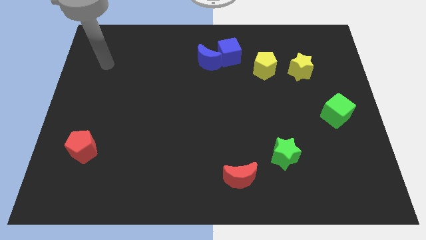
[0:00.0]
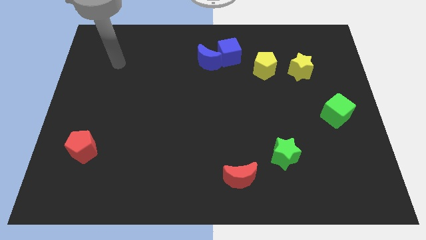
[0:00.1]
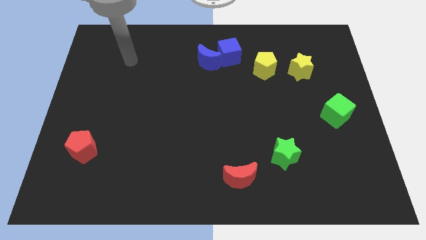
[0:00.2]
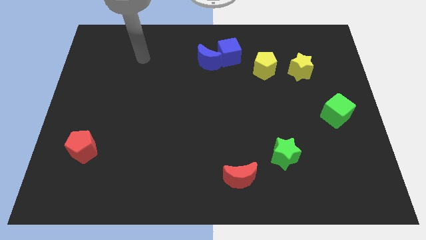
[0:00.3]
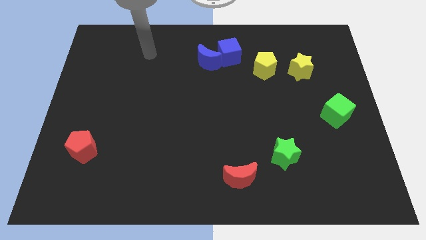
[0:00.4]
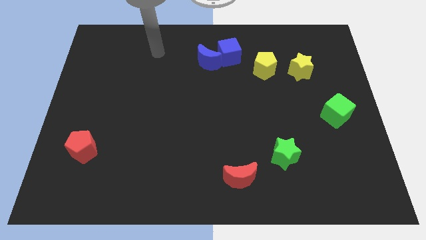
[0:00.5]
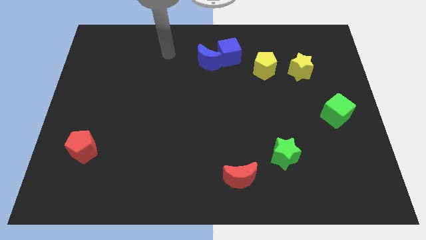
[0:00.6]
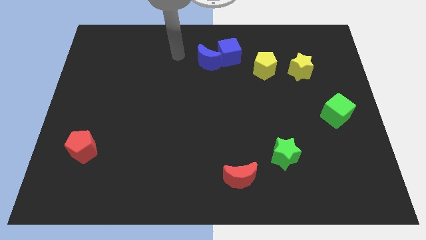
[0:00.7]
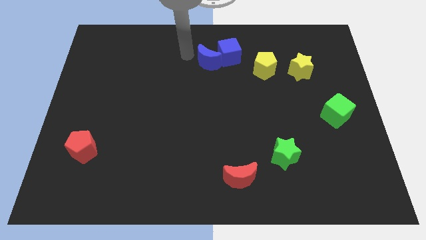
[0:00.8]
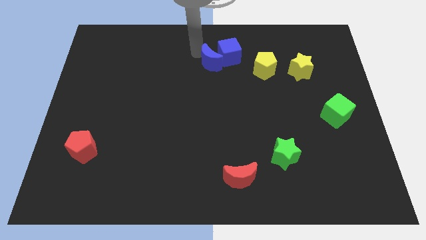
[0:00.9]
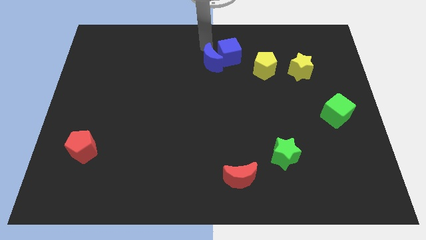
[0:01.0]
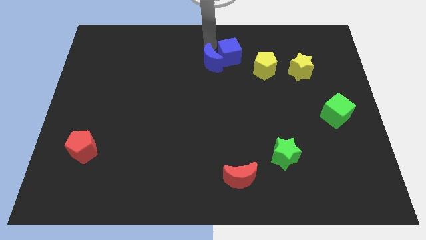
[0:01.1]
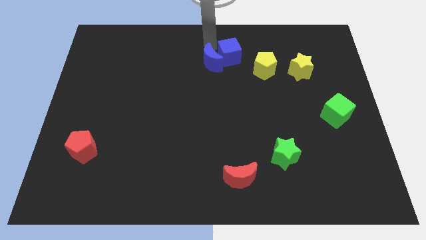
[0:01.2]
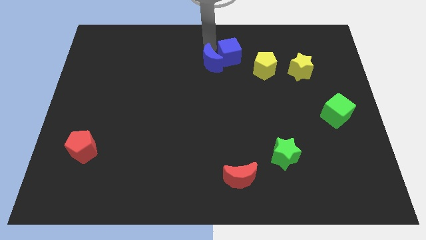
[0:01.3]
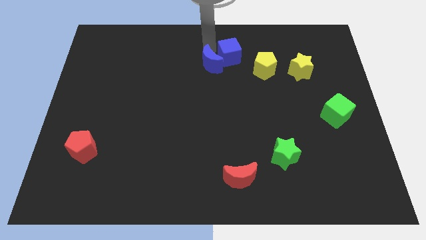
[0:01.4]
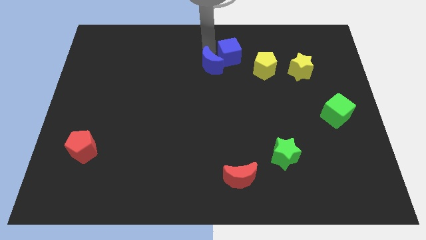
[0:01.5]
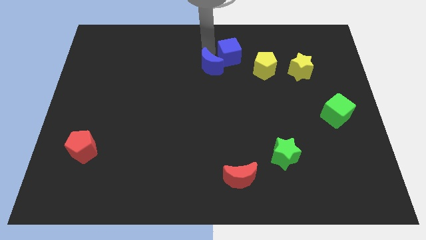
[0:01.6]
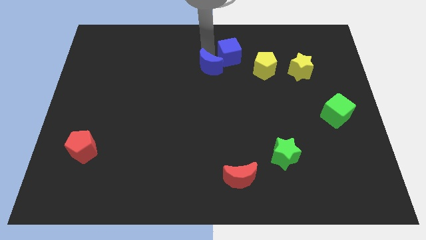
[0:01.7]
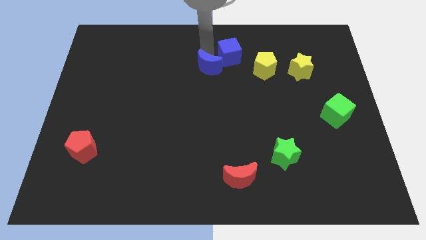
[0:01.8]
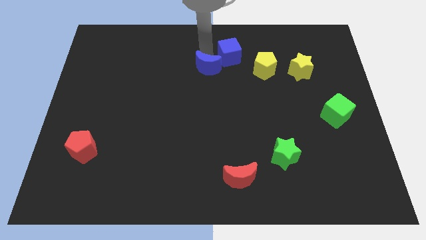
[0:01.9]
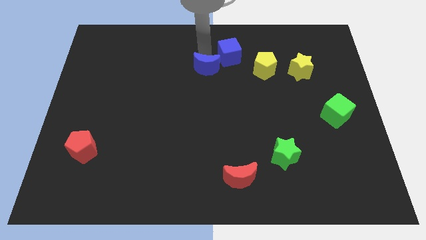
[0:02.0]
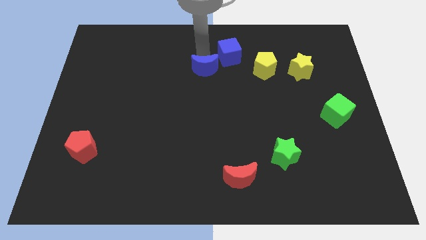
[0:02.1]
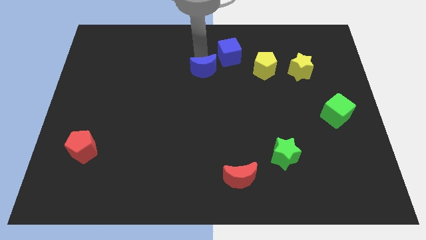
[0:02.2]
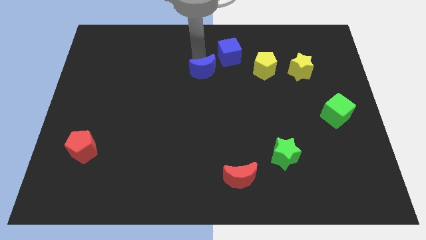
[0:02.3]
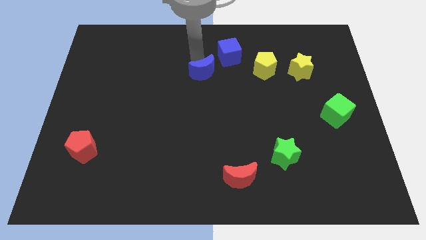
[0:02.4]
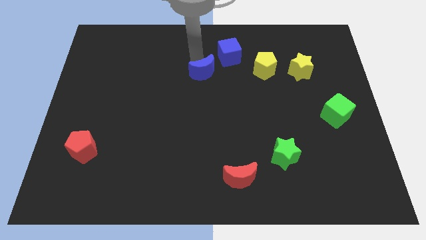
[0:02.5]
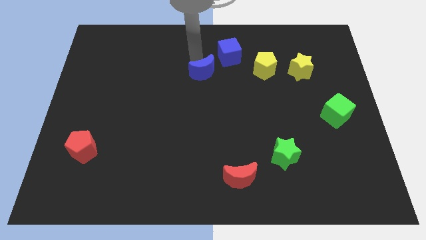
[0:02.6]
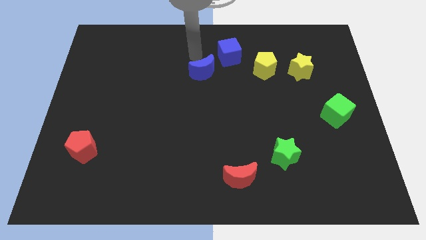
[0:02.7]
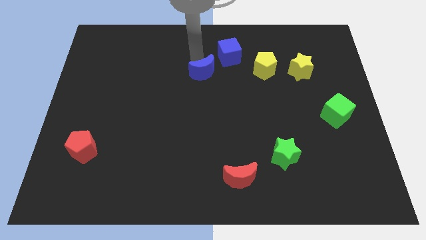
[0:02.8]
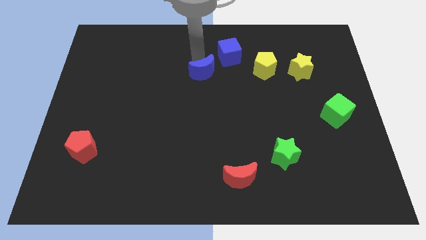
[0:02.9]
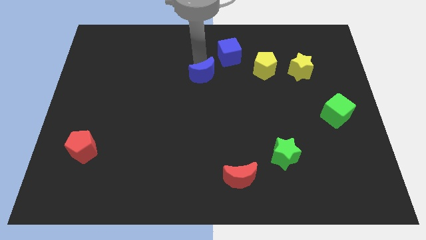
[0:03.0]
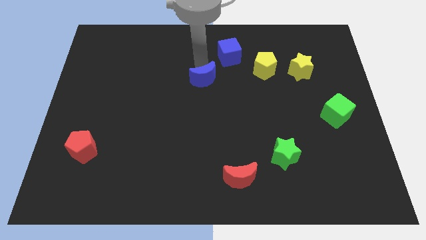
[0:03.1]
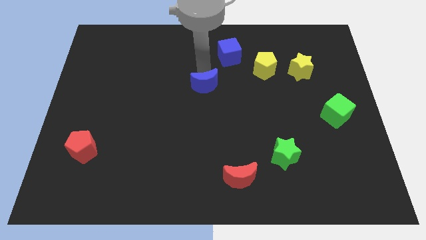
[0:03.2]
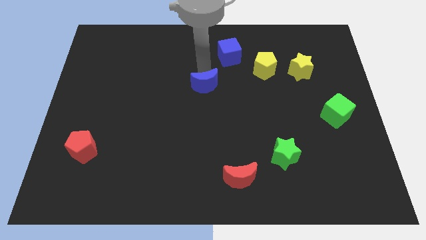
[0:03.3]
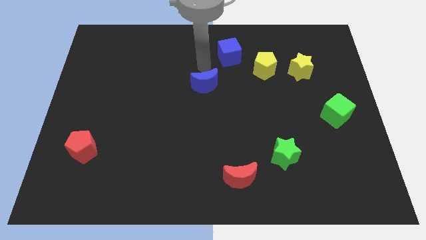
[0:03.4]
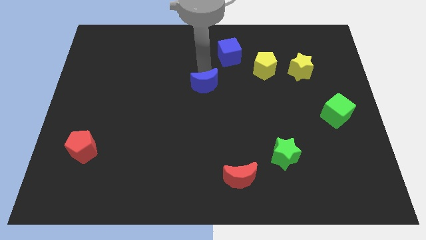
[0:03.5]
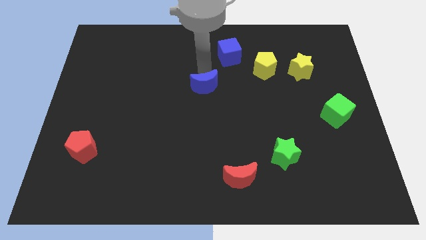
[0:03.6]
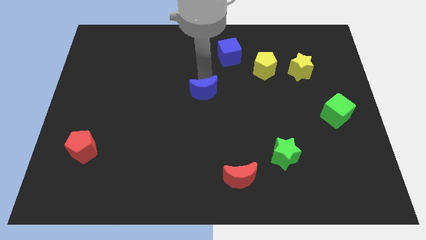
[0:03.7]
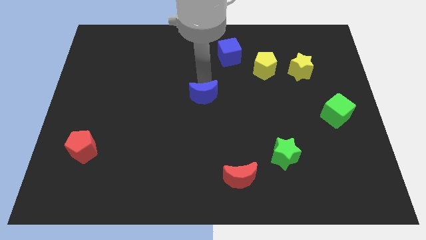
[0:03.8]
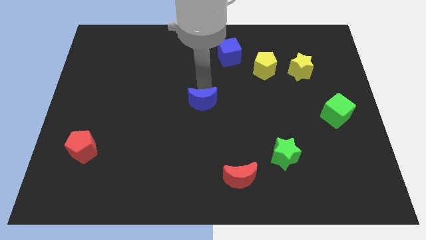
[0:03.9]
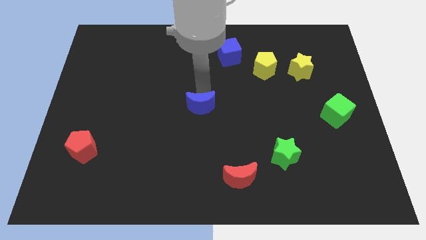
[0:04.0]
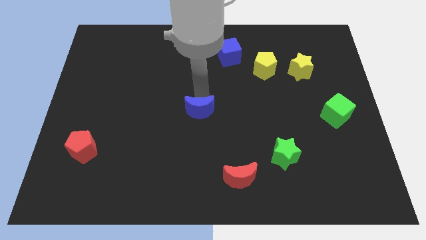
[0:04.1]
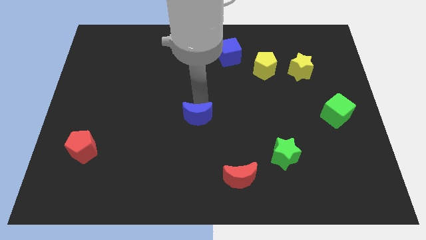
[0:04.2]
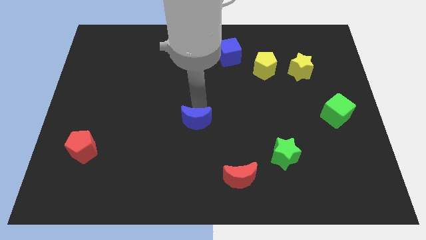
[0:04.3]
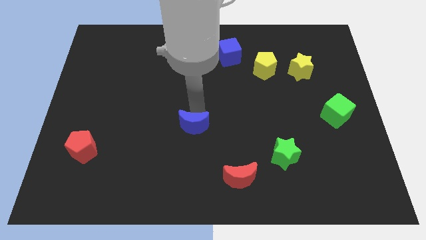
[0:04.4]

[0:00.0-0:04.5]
slide the blue moon down

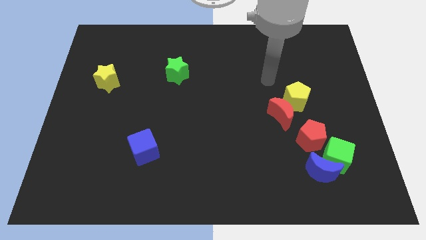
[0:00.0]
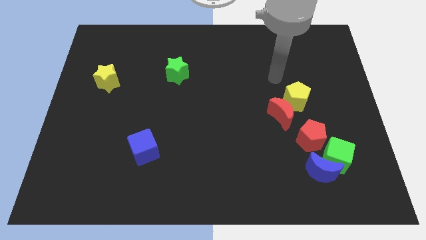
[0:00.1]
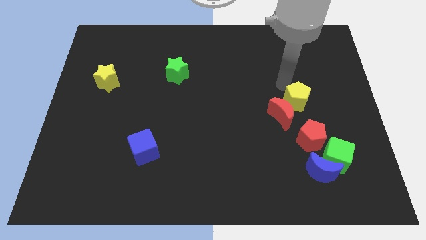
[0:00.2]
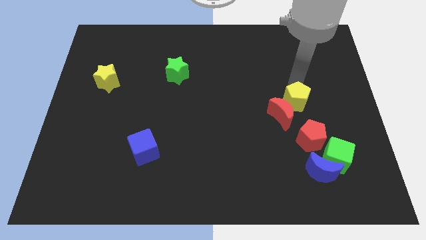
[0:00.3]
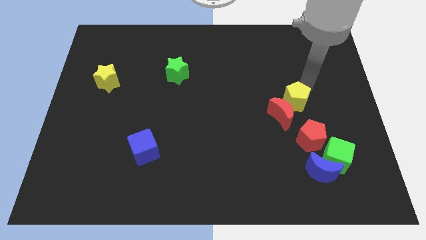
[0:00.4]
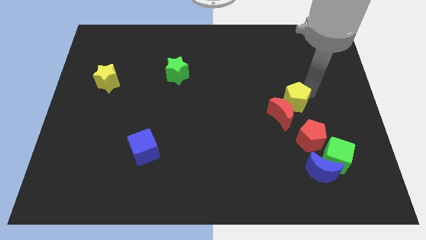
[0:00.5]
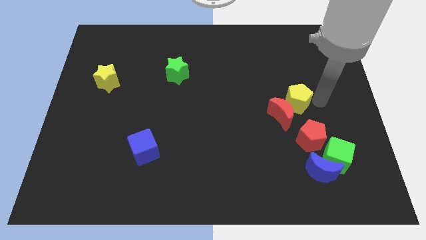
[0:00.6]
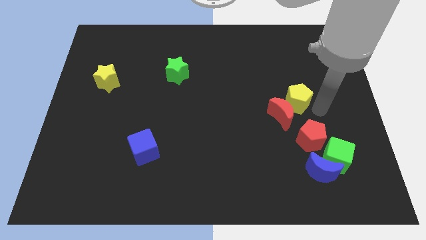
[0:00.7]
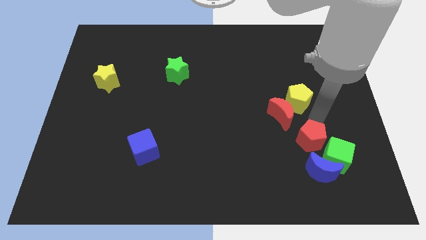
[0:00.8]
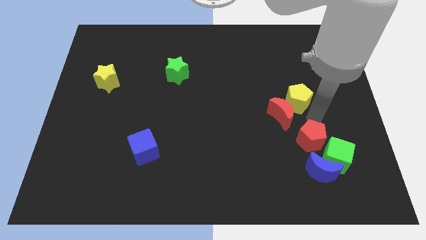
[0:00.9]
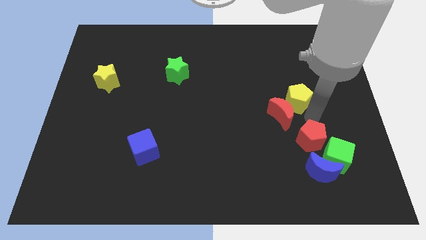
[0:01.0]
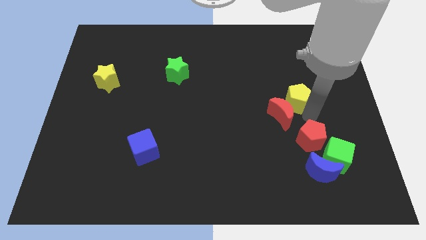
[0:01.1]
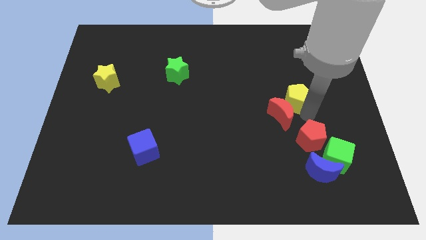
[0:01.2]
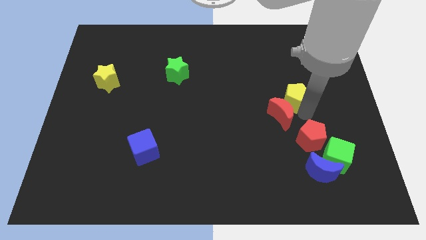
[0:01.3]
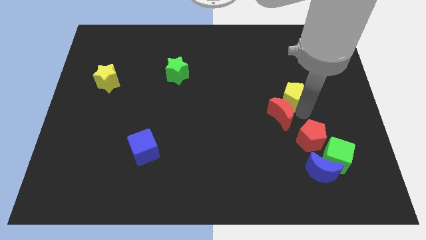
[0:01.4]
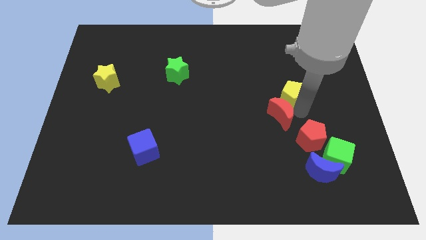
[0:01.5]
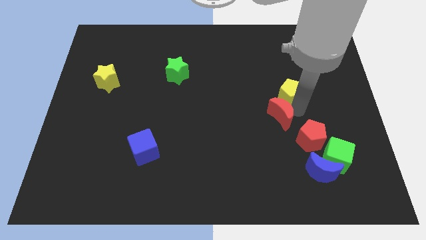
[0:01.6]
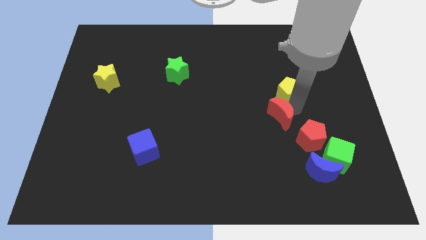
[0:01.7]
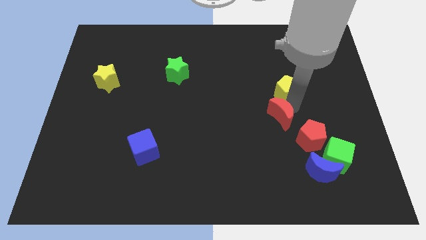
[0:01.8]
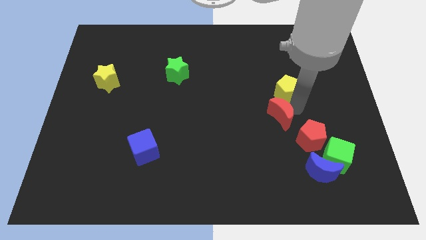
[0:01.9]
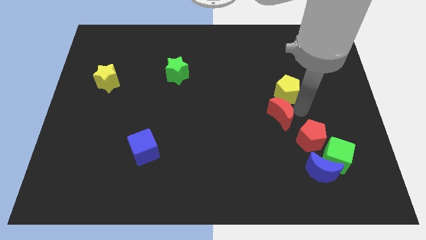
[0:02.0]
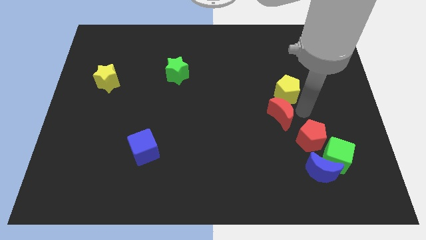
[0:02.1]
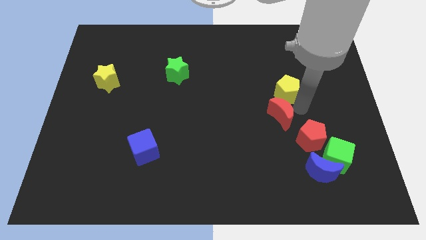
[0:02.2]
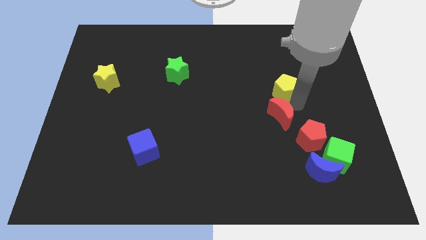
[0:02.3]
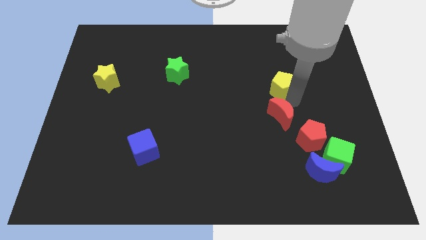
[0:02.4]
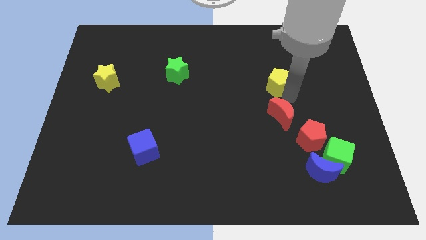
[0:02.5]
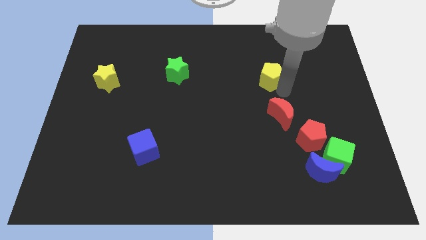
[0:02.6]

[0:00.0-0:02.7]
move the yellow pentagon upwards and to the left diagonally slightly

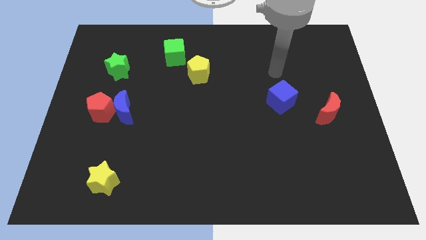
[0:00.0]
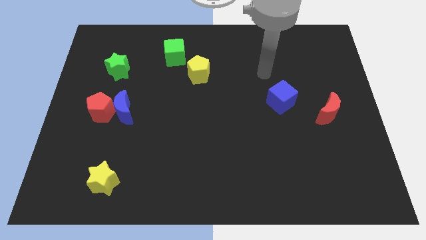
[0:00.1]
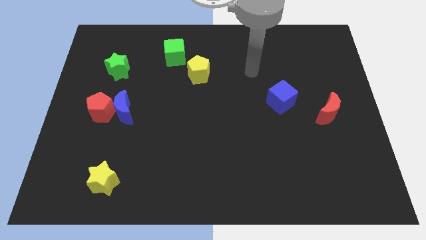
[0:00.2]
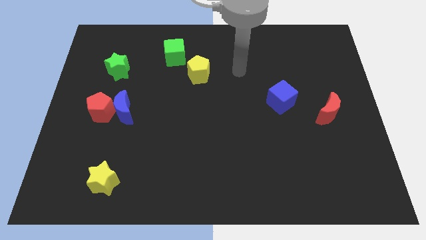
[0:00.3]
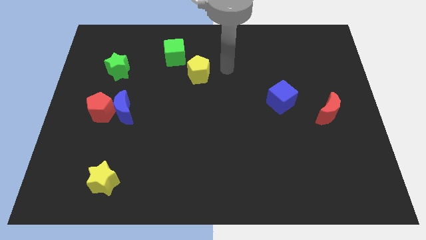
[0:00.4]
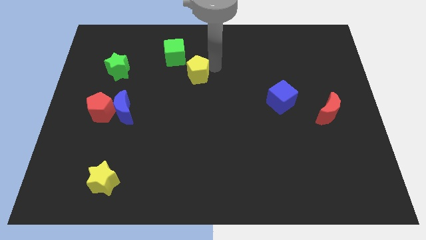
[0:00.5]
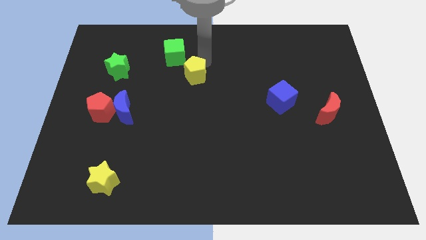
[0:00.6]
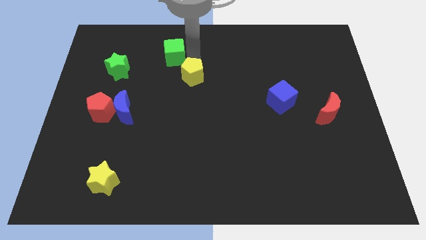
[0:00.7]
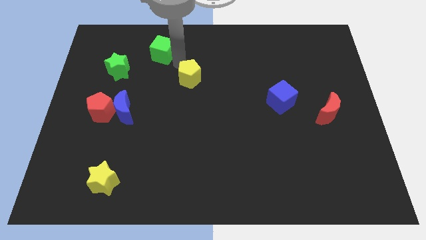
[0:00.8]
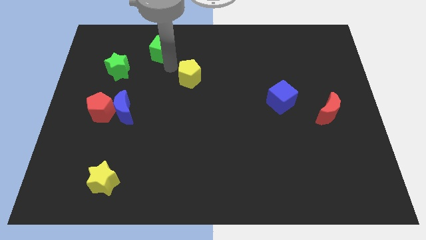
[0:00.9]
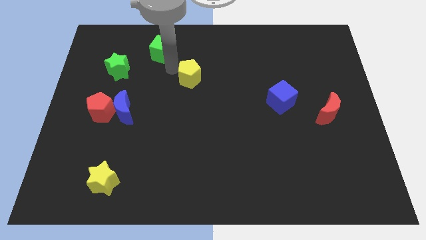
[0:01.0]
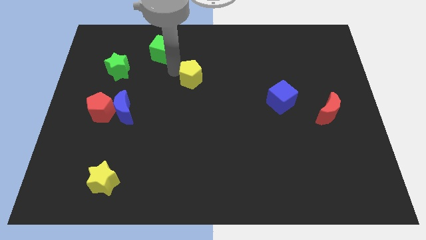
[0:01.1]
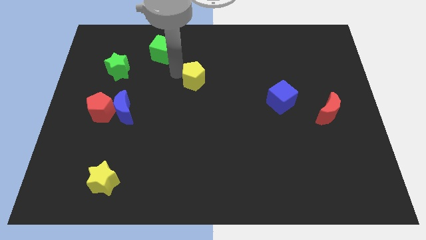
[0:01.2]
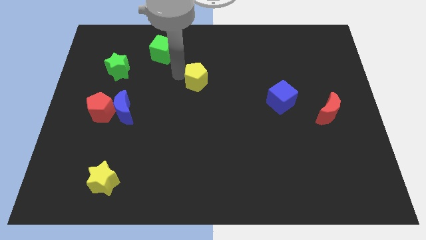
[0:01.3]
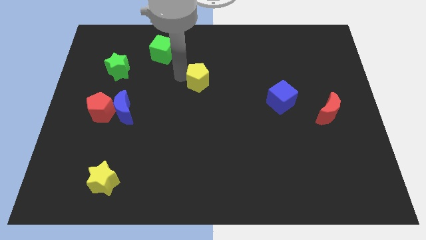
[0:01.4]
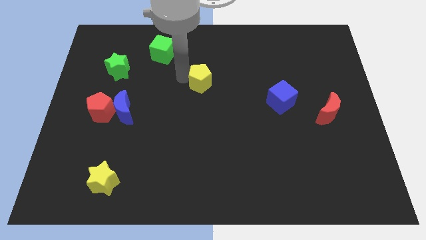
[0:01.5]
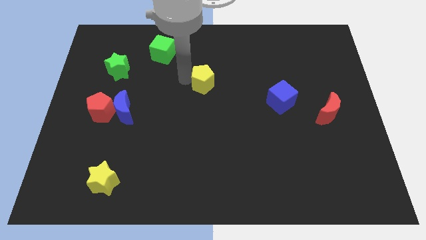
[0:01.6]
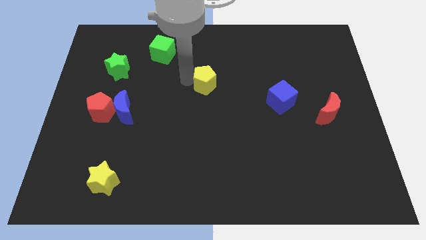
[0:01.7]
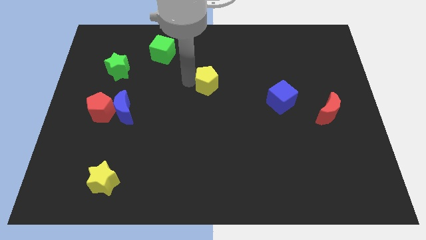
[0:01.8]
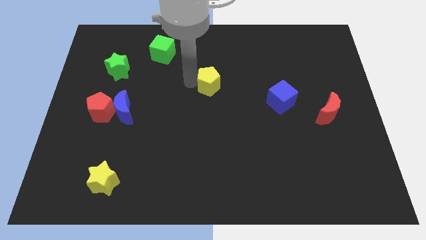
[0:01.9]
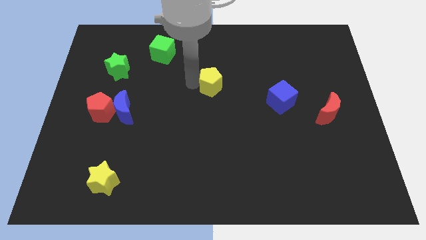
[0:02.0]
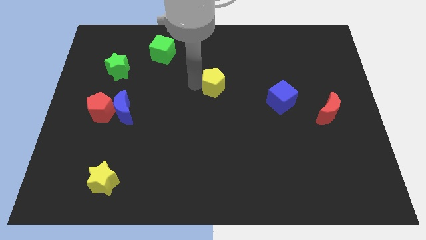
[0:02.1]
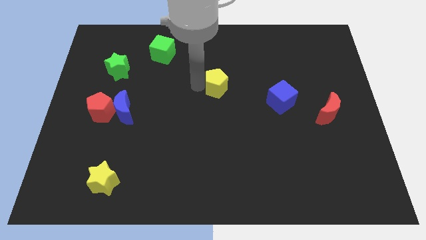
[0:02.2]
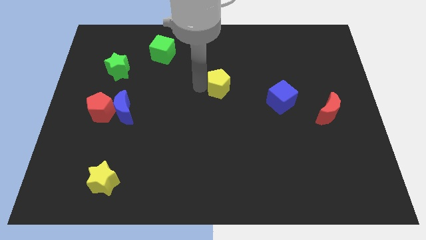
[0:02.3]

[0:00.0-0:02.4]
slide the yellow pentagon diagonally downwards and right a little bit
